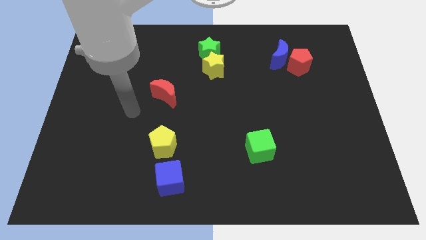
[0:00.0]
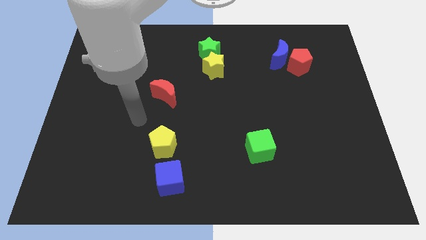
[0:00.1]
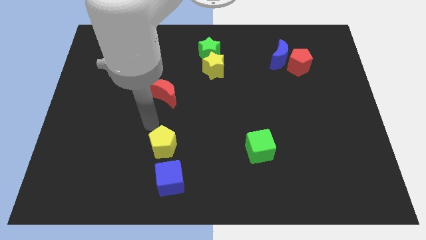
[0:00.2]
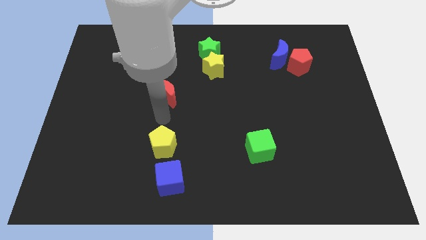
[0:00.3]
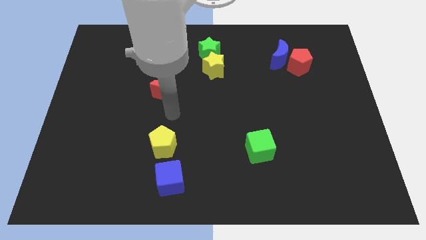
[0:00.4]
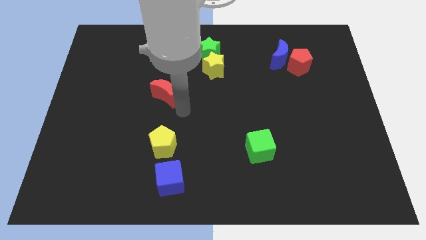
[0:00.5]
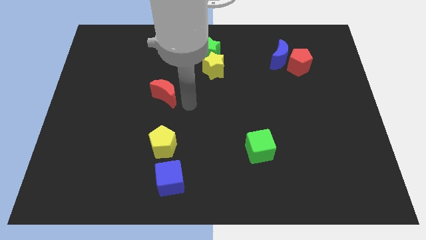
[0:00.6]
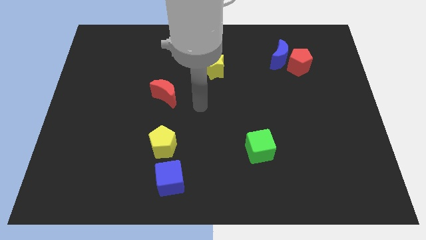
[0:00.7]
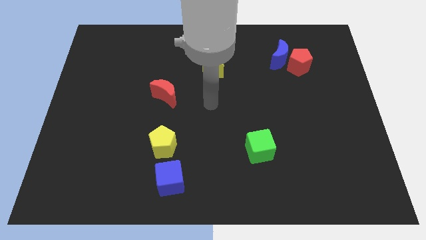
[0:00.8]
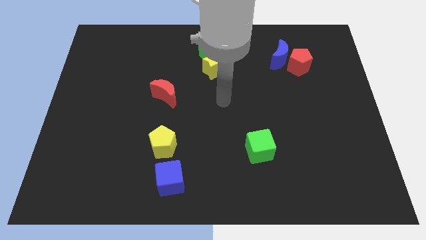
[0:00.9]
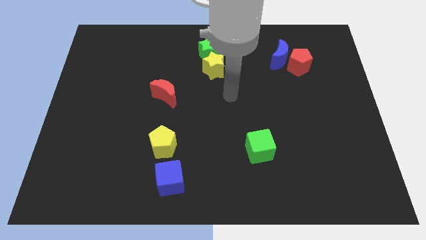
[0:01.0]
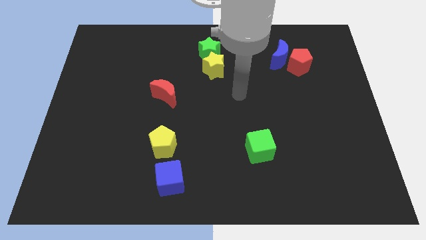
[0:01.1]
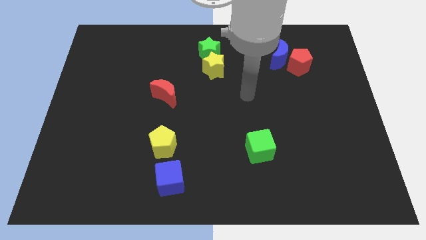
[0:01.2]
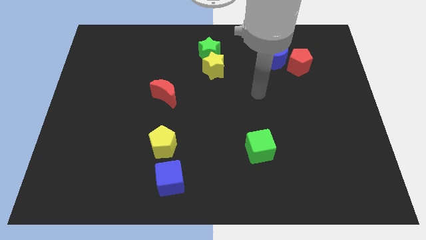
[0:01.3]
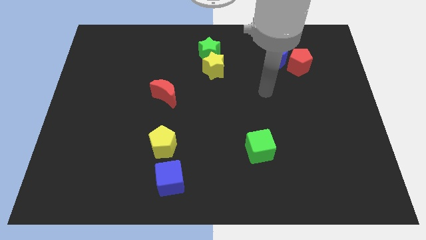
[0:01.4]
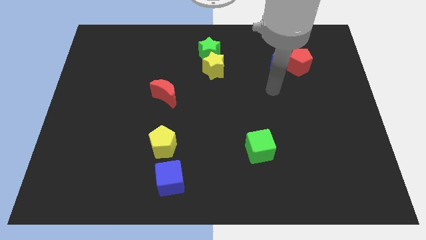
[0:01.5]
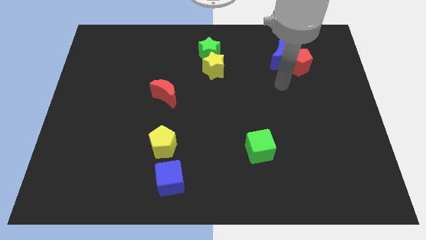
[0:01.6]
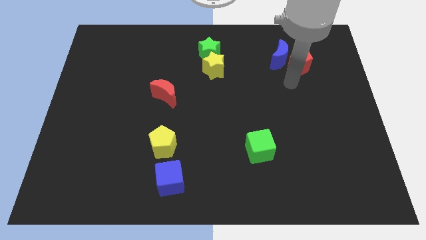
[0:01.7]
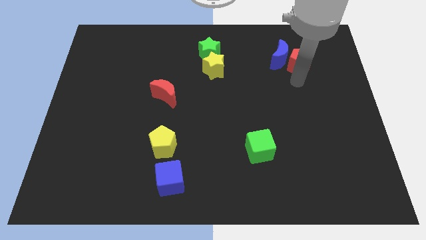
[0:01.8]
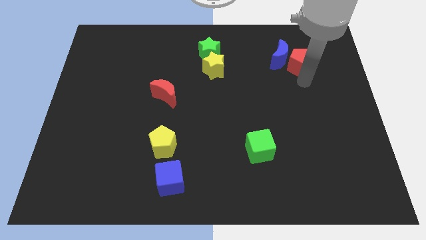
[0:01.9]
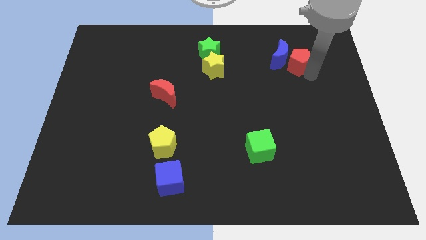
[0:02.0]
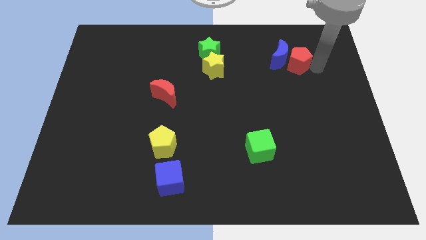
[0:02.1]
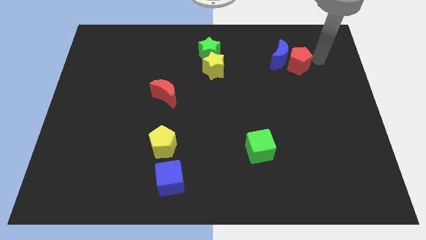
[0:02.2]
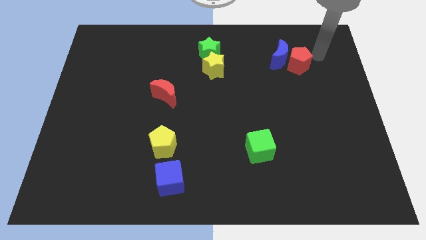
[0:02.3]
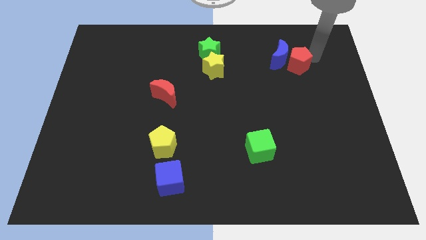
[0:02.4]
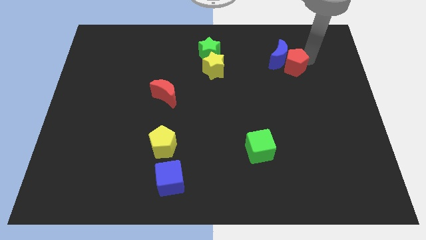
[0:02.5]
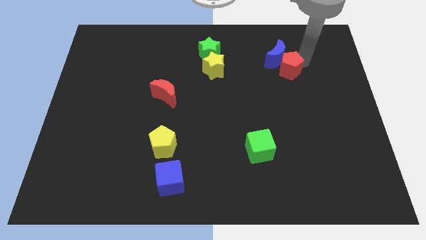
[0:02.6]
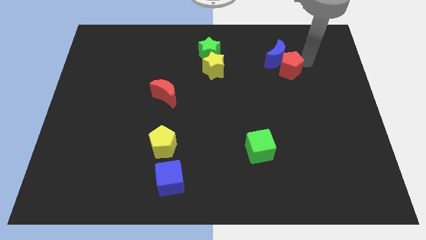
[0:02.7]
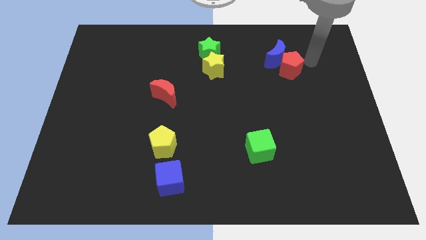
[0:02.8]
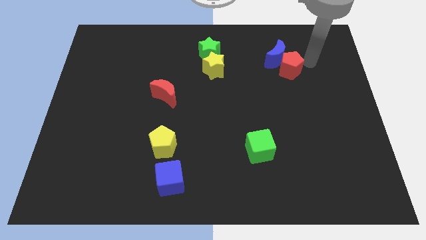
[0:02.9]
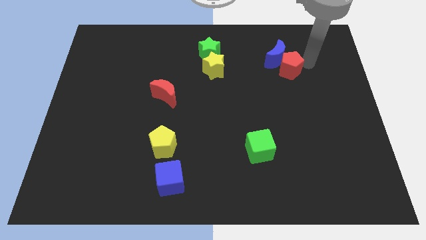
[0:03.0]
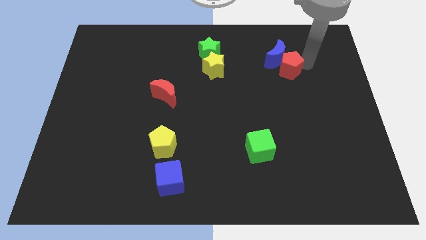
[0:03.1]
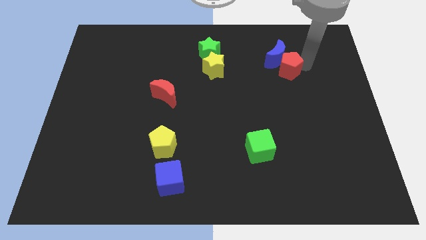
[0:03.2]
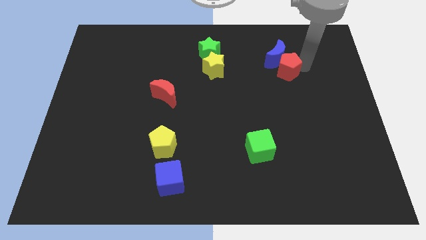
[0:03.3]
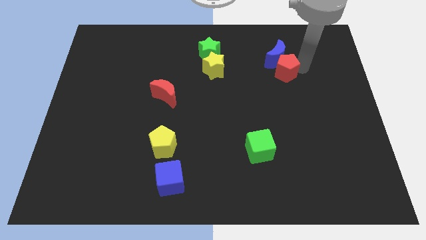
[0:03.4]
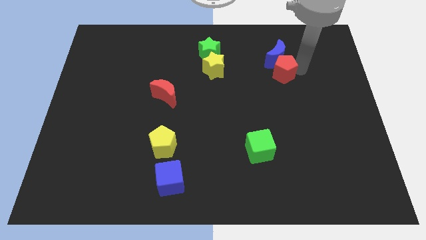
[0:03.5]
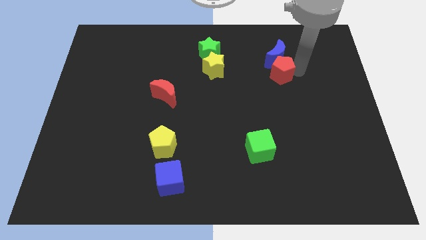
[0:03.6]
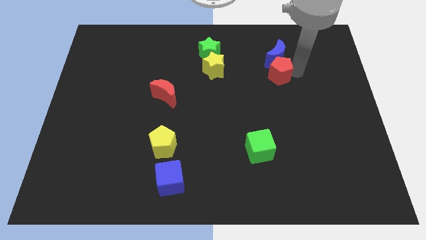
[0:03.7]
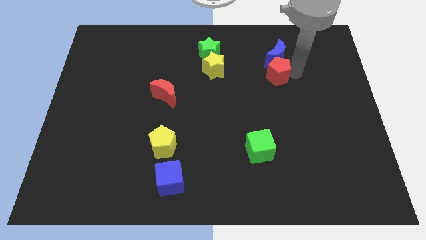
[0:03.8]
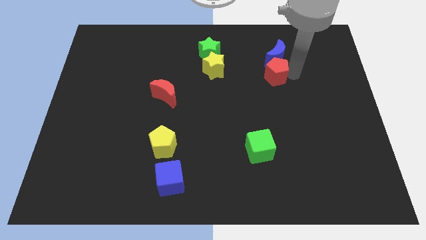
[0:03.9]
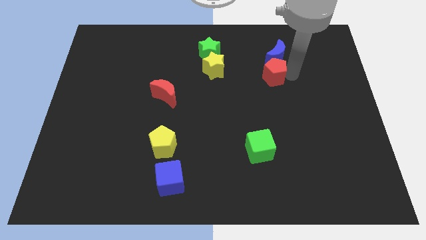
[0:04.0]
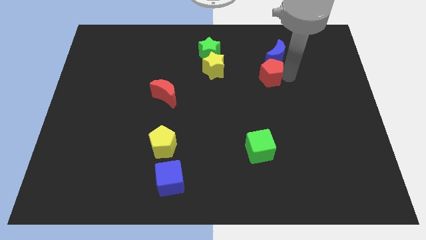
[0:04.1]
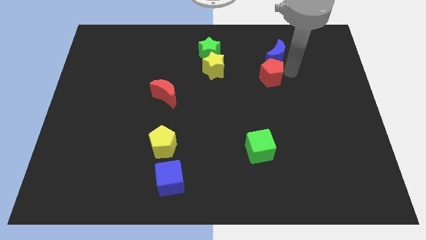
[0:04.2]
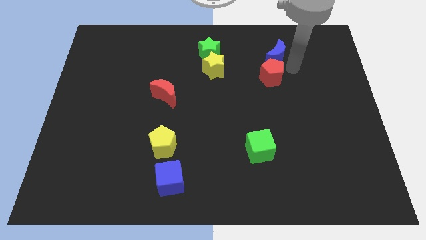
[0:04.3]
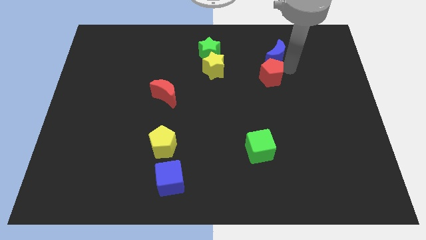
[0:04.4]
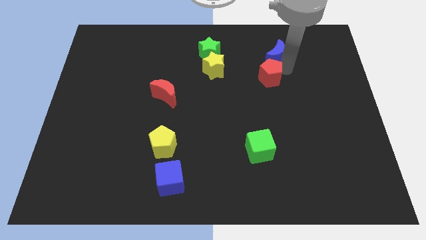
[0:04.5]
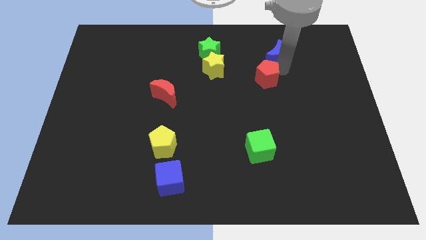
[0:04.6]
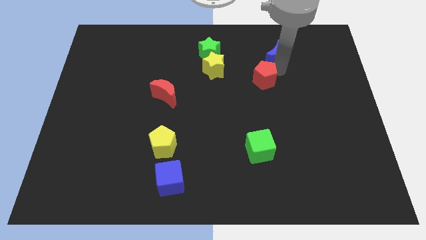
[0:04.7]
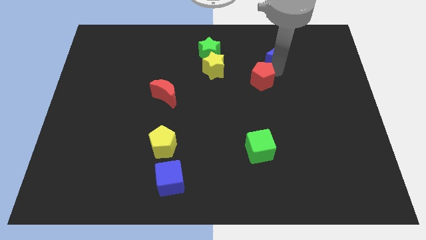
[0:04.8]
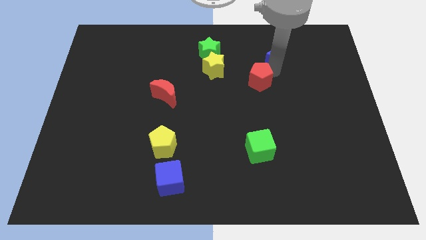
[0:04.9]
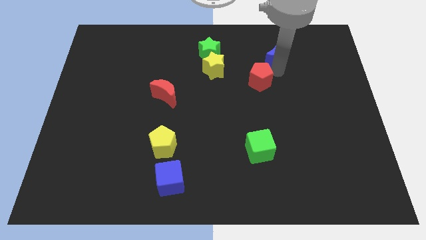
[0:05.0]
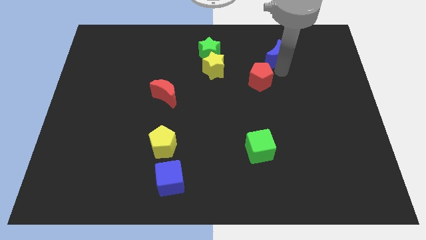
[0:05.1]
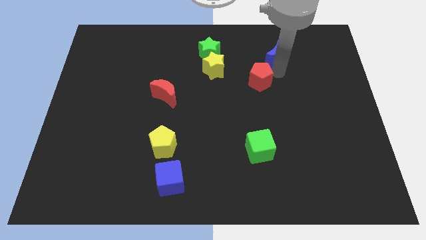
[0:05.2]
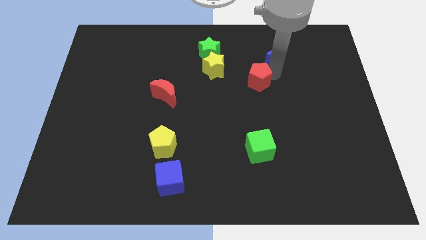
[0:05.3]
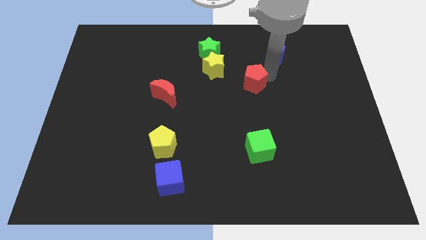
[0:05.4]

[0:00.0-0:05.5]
push the red pentagon to the middle
